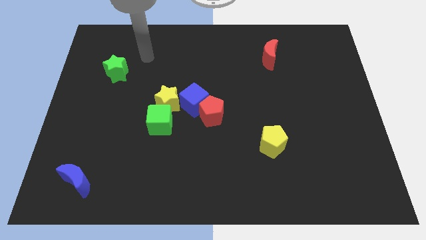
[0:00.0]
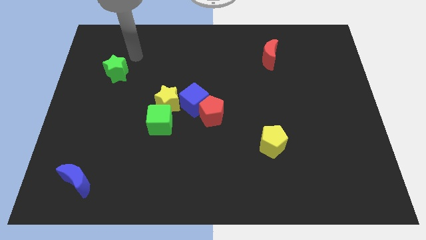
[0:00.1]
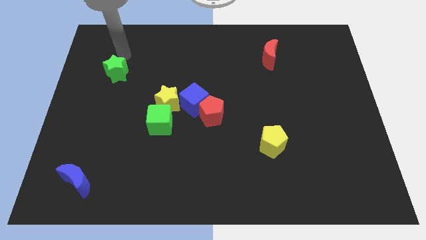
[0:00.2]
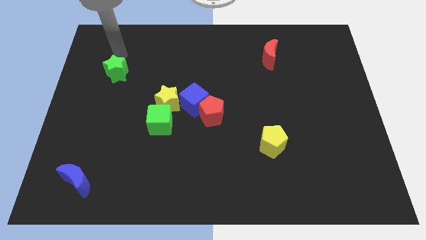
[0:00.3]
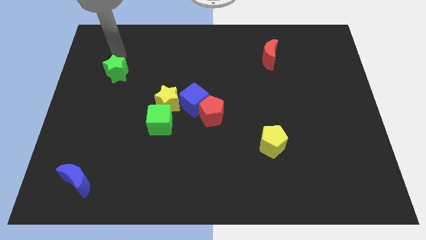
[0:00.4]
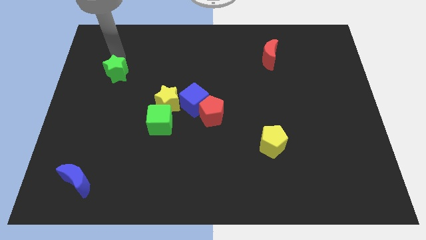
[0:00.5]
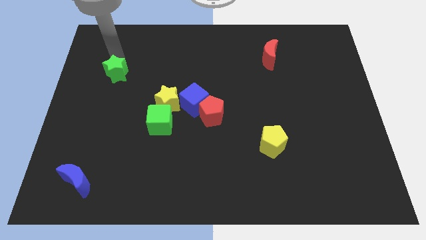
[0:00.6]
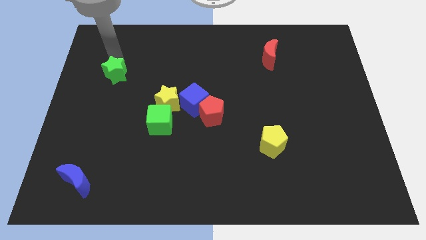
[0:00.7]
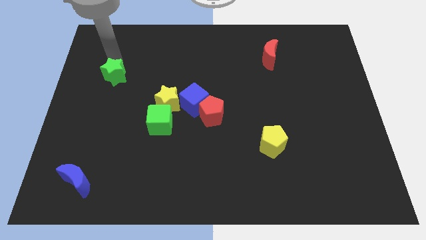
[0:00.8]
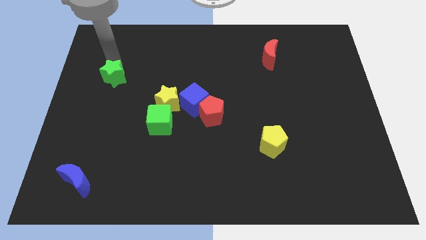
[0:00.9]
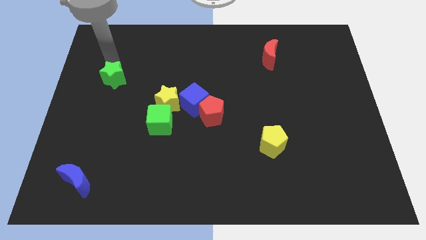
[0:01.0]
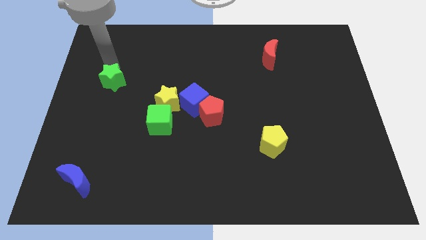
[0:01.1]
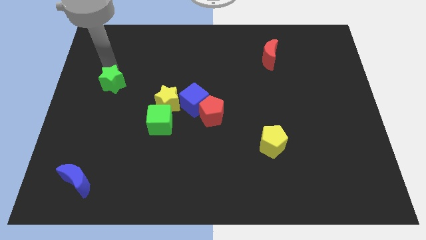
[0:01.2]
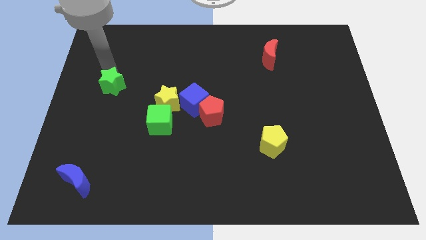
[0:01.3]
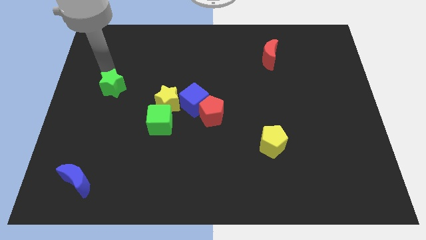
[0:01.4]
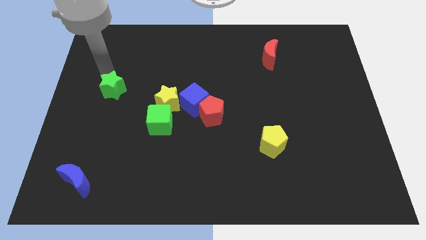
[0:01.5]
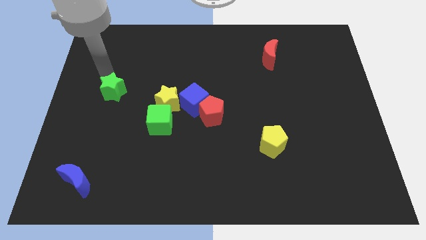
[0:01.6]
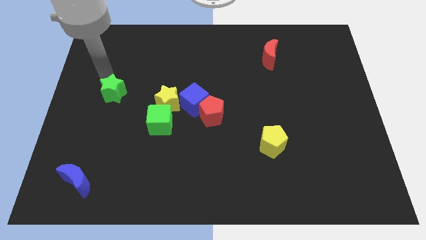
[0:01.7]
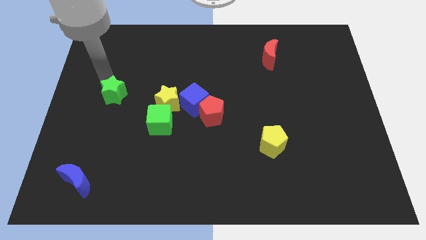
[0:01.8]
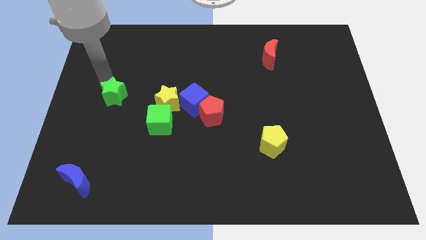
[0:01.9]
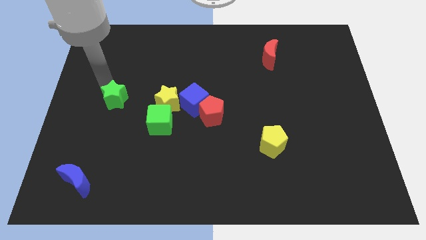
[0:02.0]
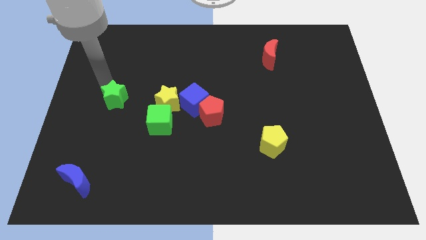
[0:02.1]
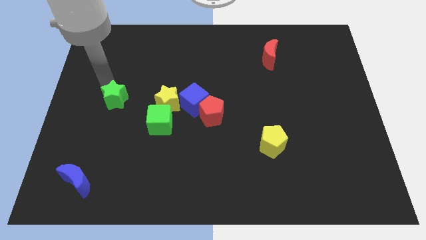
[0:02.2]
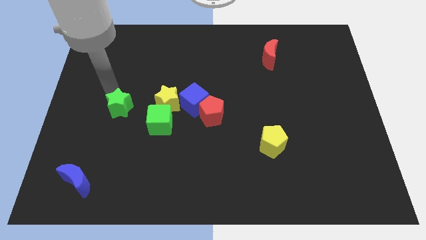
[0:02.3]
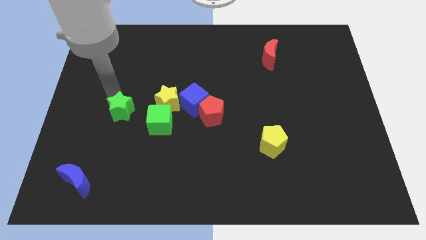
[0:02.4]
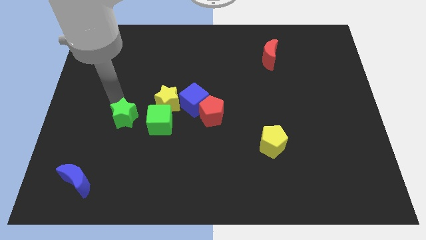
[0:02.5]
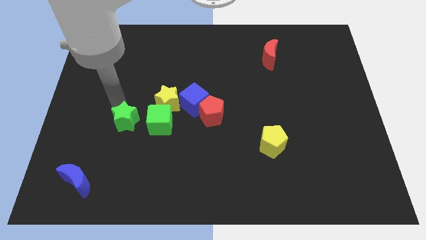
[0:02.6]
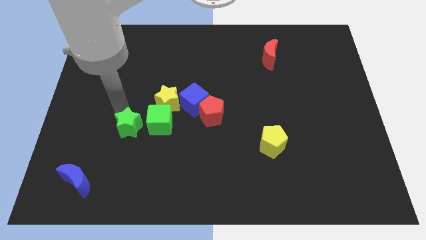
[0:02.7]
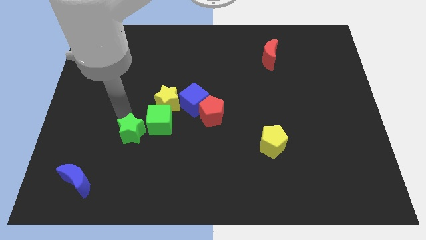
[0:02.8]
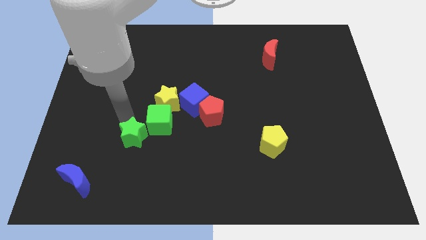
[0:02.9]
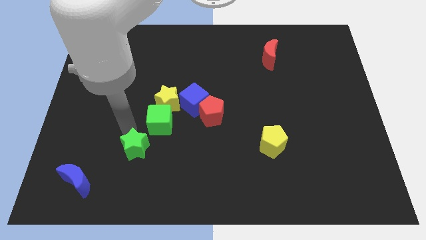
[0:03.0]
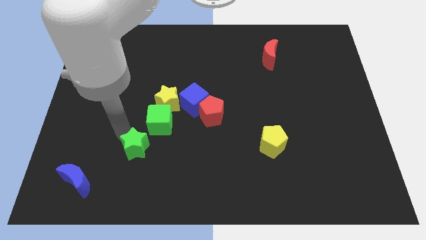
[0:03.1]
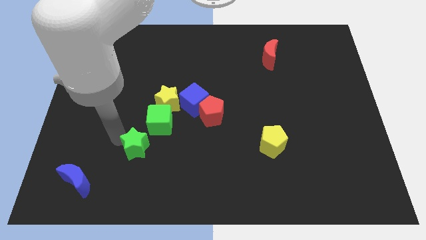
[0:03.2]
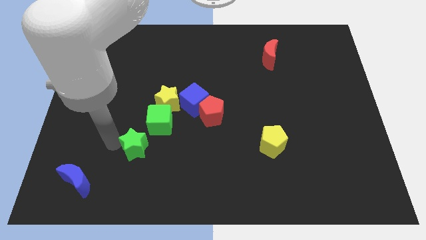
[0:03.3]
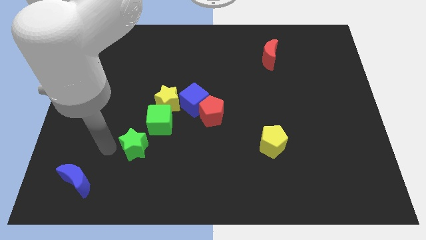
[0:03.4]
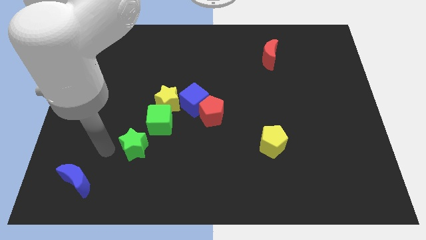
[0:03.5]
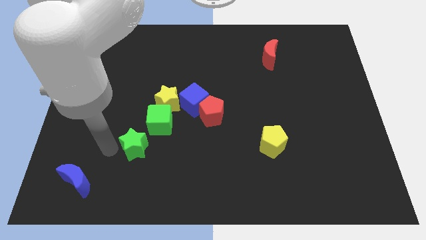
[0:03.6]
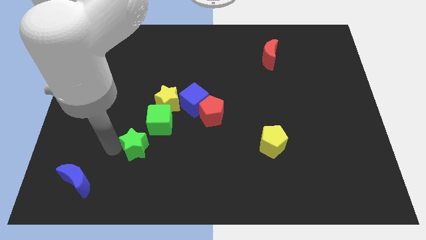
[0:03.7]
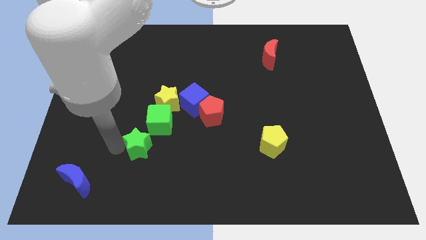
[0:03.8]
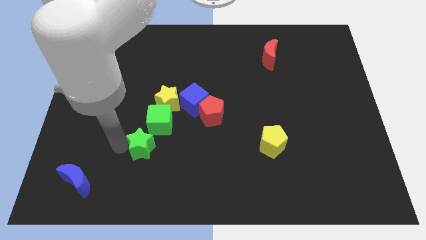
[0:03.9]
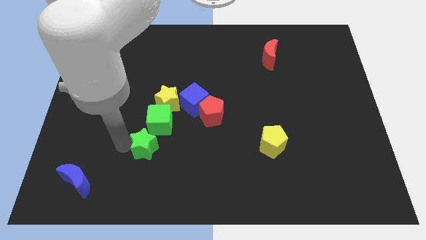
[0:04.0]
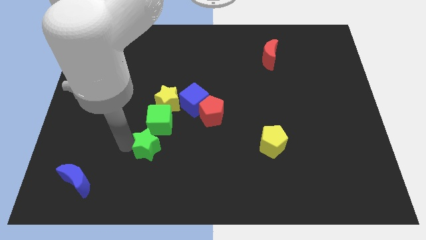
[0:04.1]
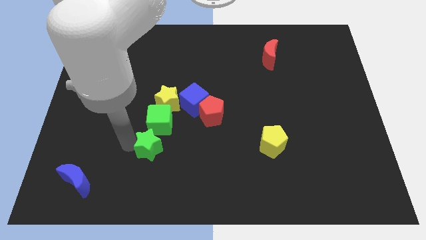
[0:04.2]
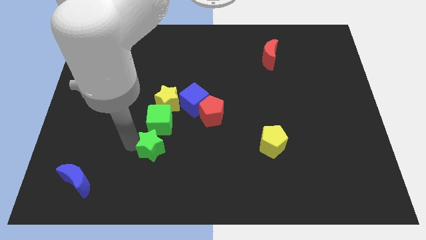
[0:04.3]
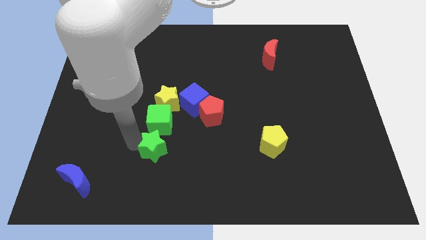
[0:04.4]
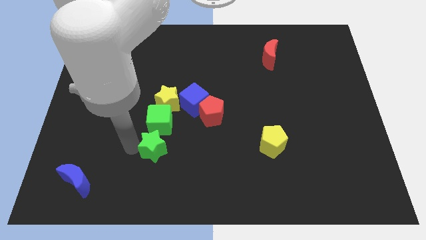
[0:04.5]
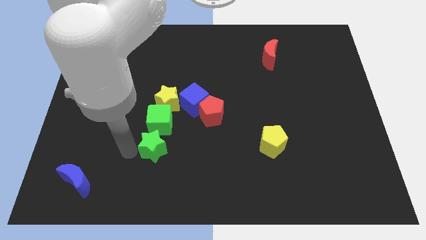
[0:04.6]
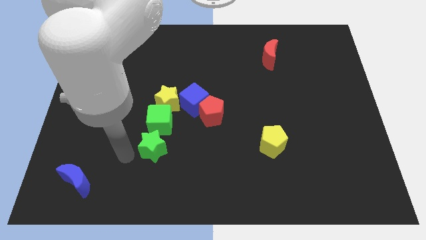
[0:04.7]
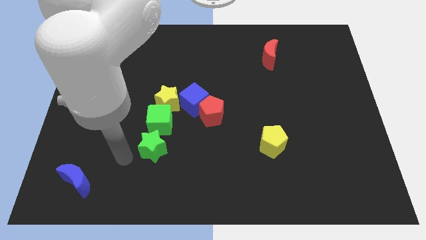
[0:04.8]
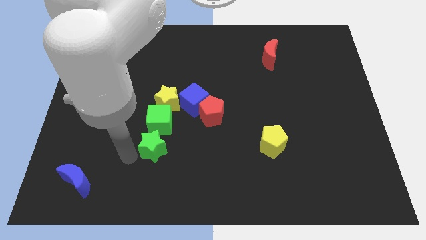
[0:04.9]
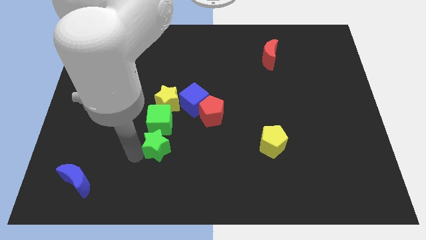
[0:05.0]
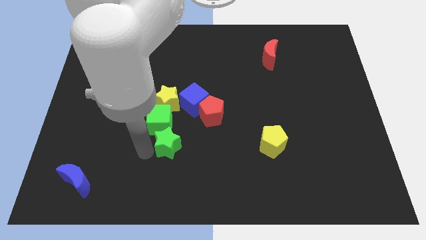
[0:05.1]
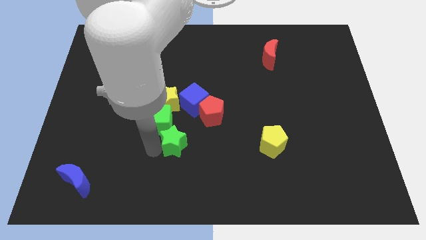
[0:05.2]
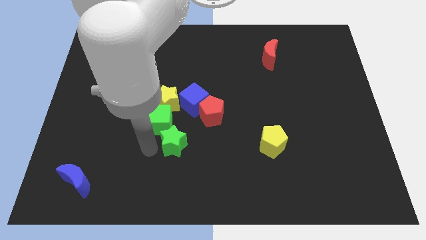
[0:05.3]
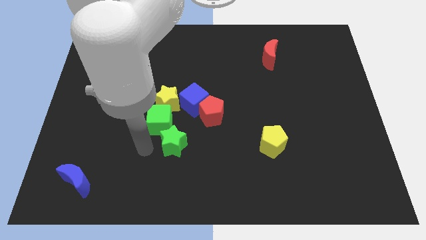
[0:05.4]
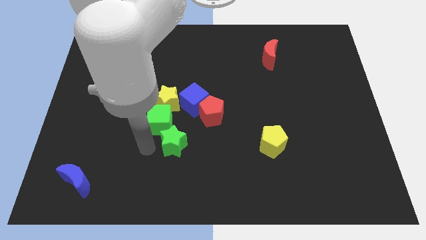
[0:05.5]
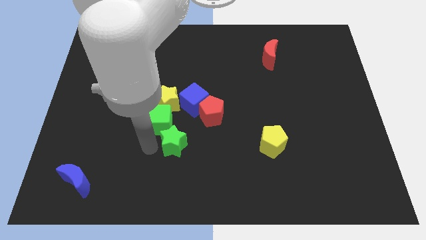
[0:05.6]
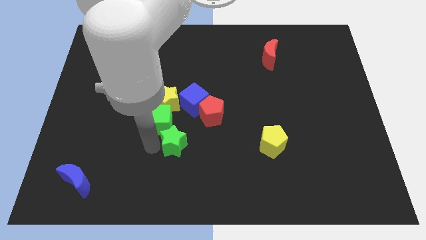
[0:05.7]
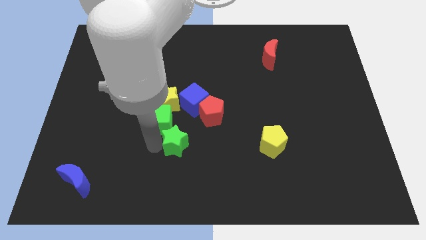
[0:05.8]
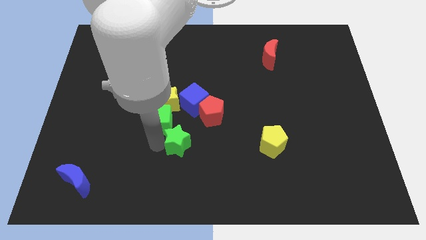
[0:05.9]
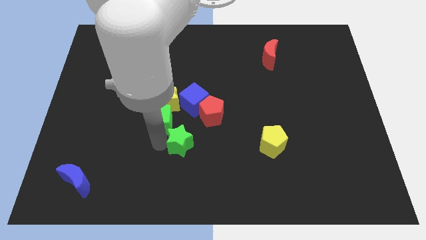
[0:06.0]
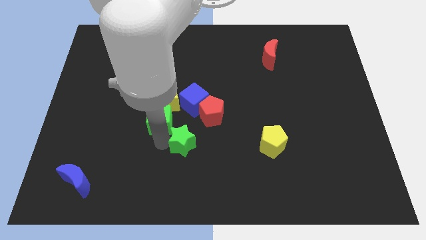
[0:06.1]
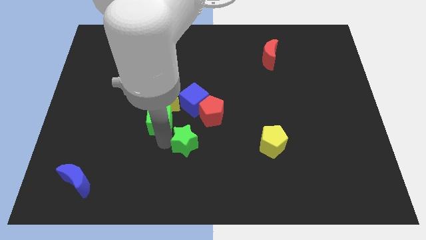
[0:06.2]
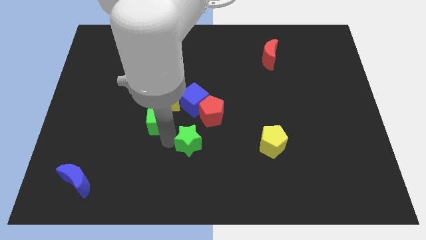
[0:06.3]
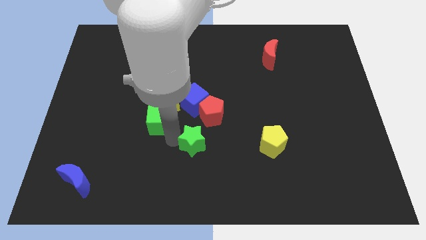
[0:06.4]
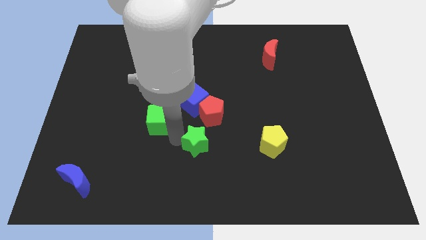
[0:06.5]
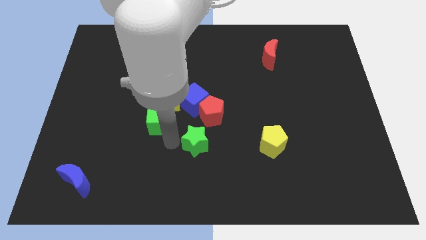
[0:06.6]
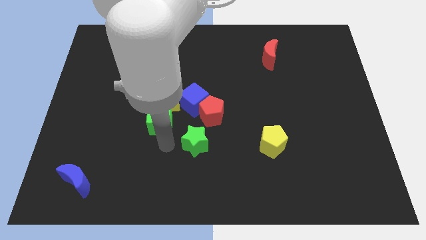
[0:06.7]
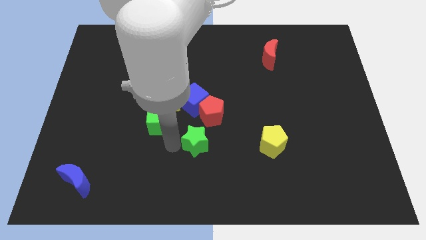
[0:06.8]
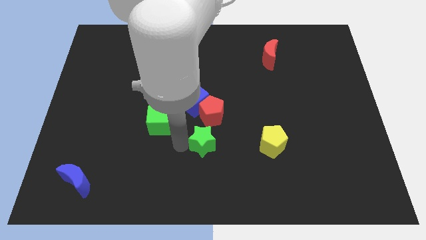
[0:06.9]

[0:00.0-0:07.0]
slide the green star to the left of the yellow pentagon
